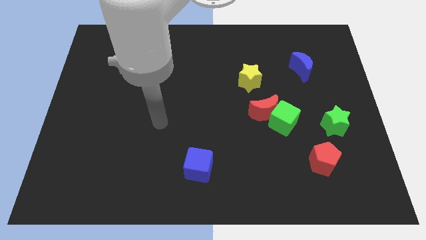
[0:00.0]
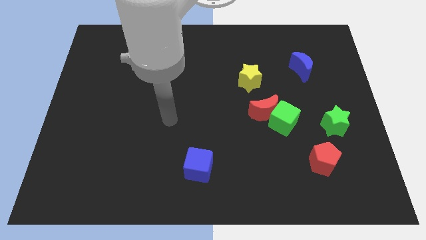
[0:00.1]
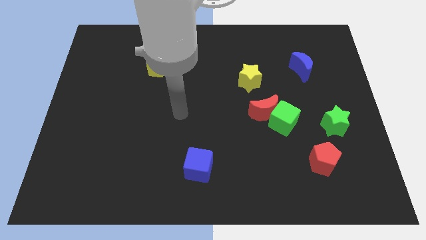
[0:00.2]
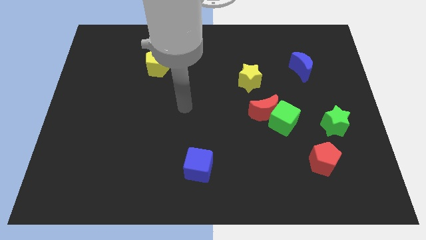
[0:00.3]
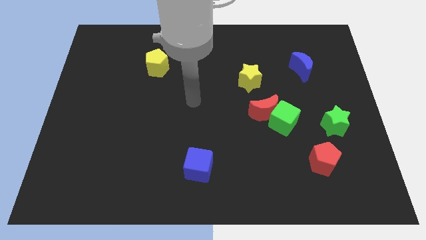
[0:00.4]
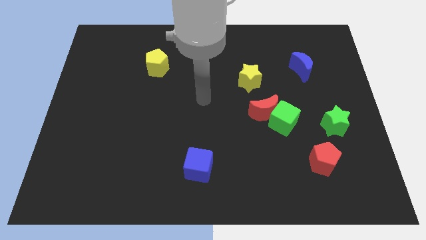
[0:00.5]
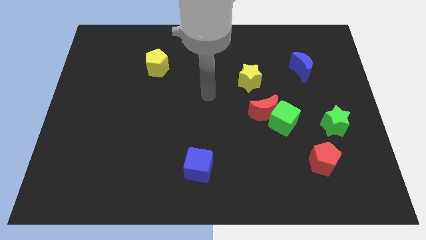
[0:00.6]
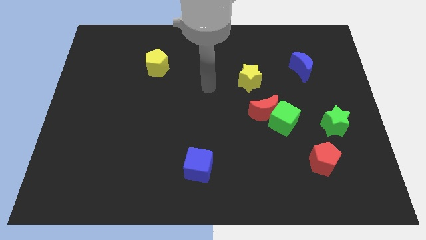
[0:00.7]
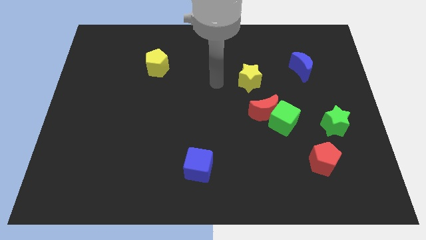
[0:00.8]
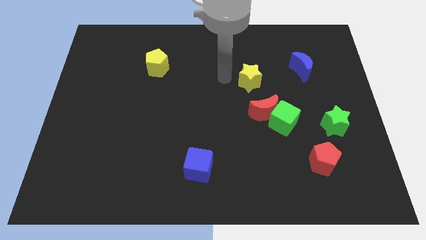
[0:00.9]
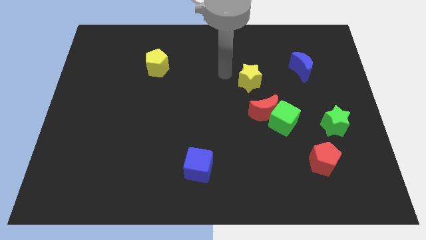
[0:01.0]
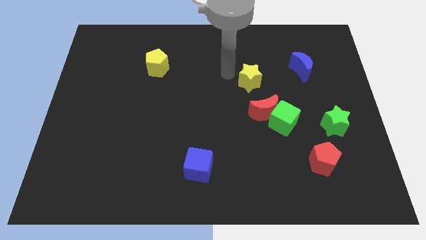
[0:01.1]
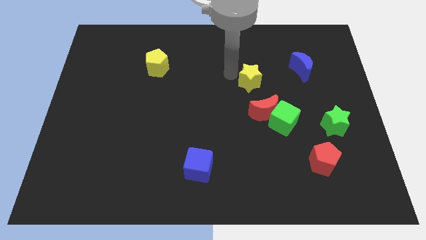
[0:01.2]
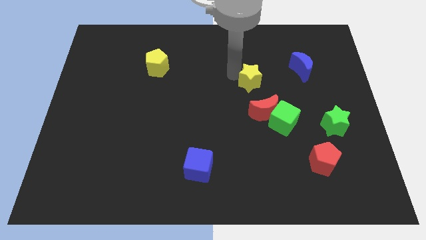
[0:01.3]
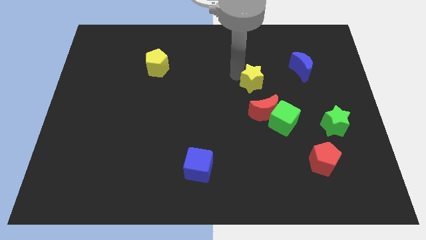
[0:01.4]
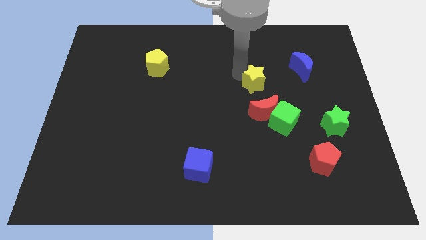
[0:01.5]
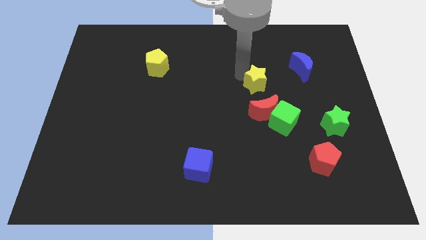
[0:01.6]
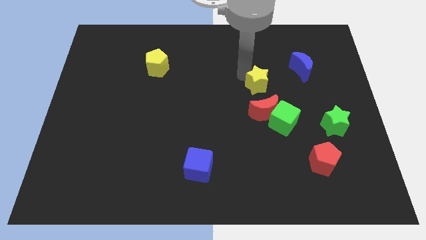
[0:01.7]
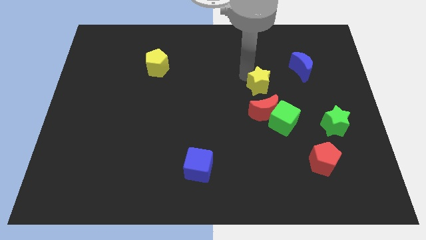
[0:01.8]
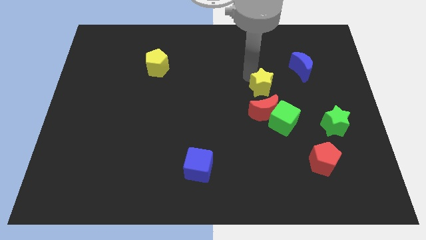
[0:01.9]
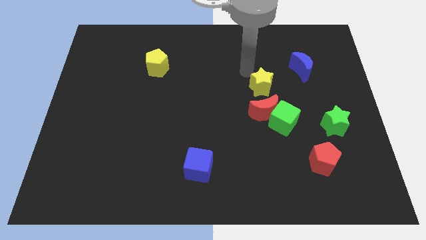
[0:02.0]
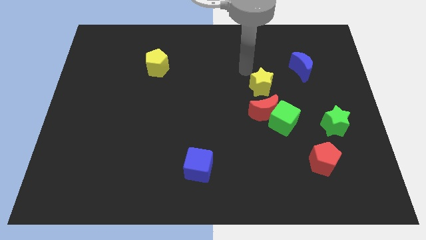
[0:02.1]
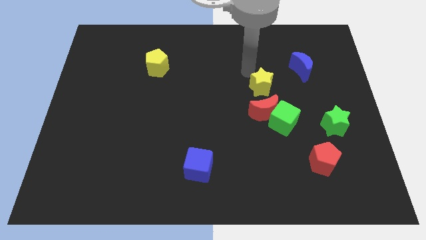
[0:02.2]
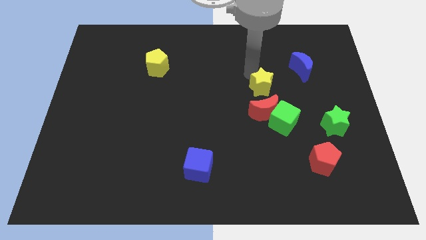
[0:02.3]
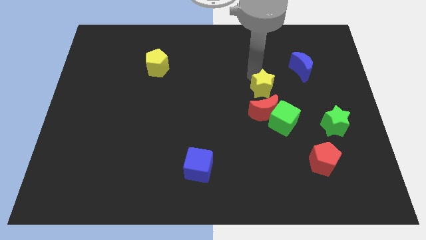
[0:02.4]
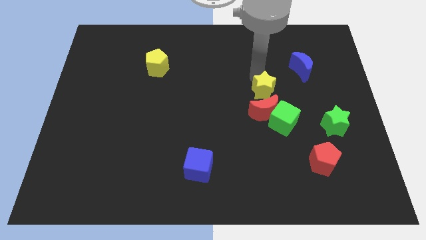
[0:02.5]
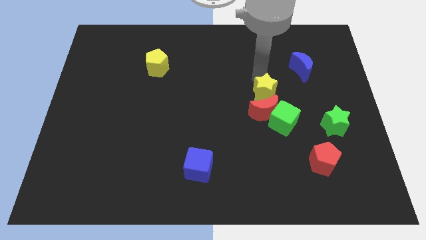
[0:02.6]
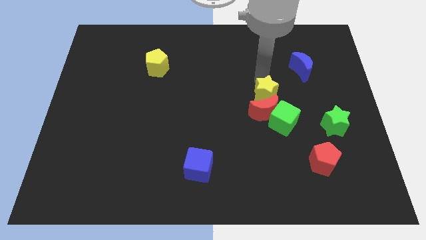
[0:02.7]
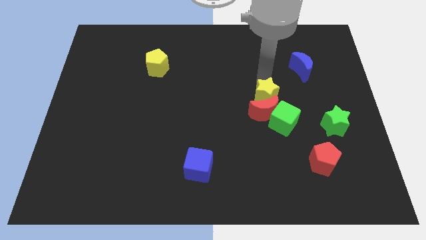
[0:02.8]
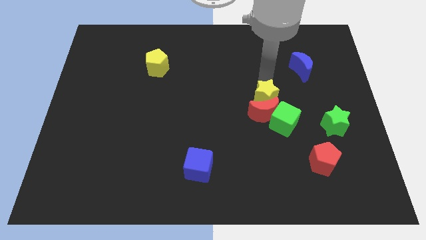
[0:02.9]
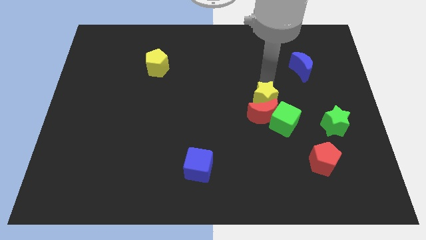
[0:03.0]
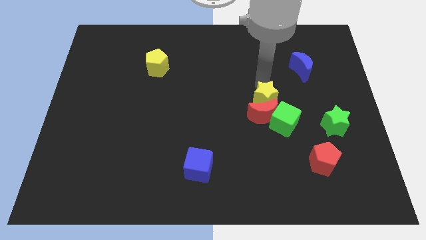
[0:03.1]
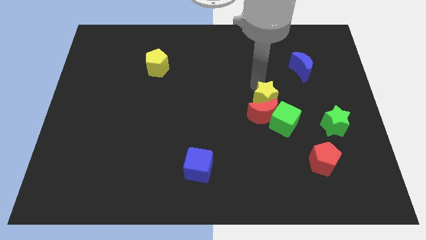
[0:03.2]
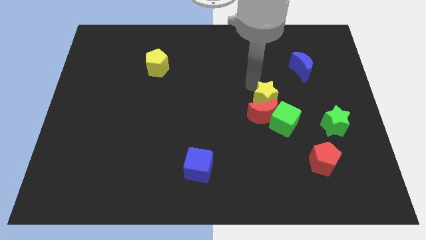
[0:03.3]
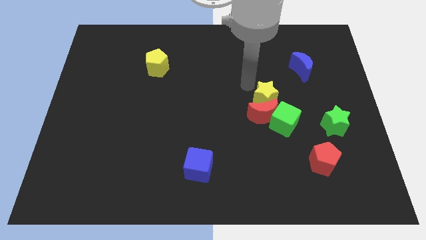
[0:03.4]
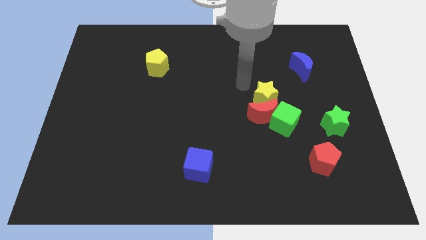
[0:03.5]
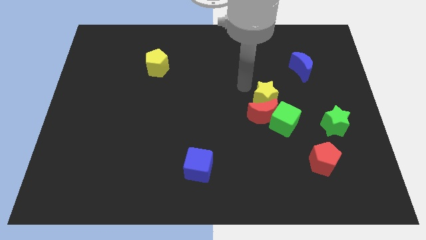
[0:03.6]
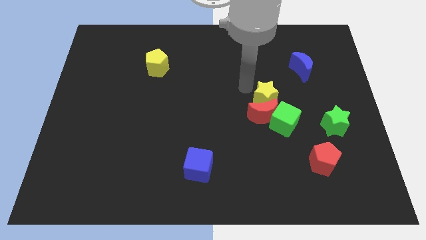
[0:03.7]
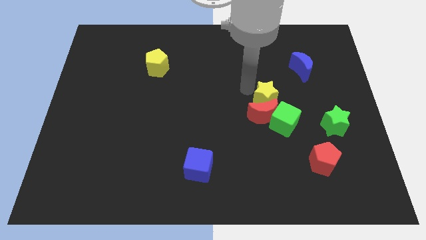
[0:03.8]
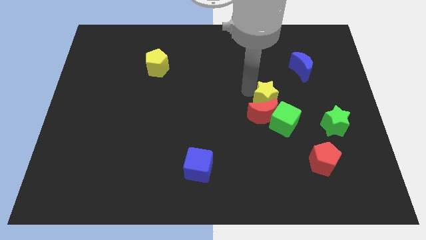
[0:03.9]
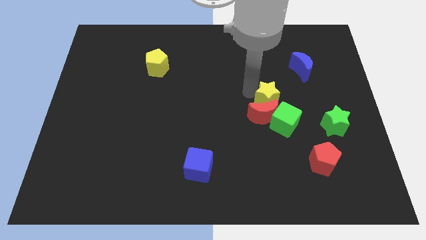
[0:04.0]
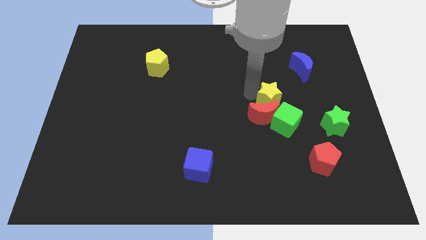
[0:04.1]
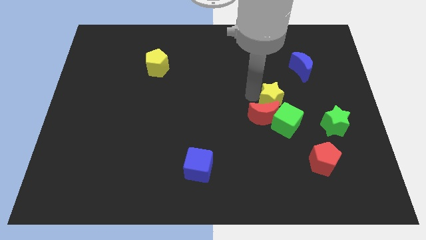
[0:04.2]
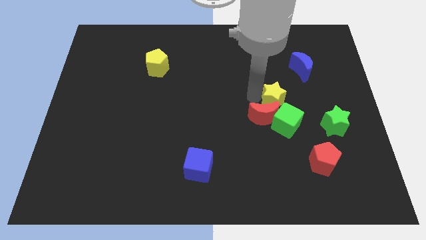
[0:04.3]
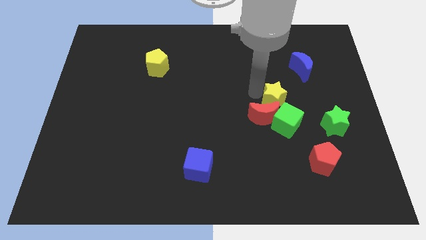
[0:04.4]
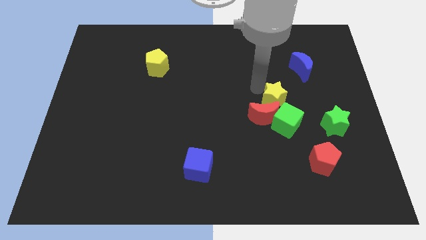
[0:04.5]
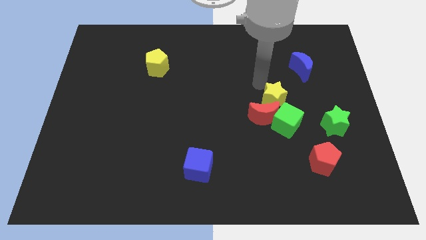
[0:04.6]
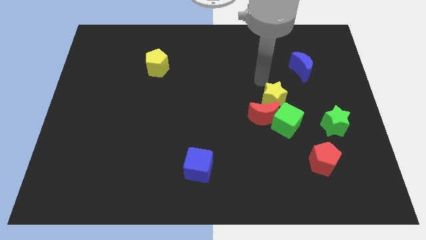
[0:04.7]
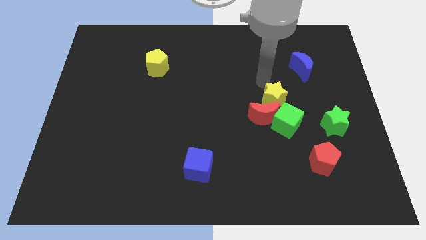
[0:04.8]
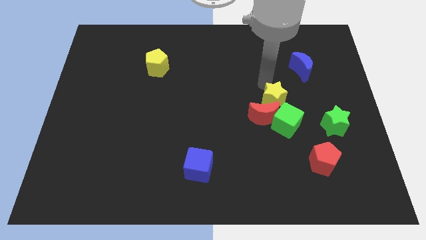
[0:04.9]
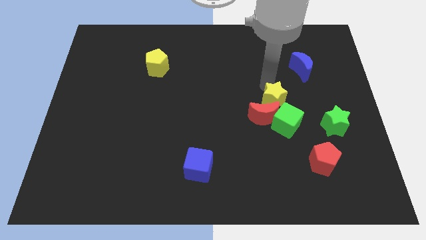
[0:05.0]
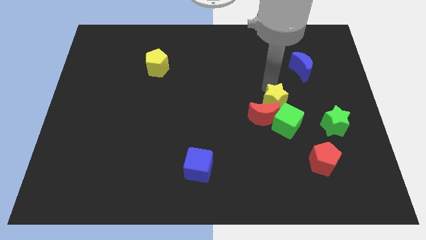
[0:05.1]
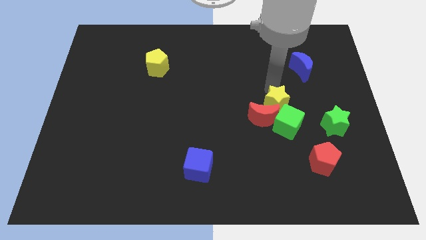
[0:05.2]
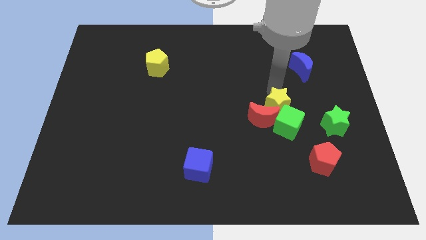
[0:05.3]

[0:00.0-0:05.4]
move the yellow star to the green cube

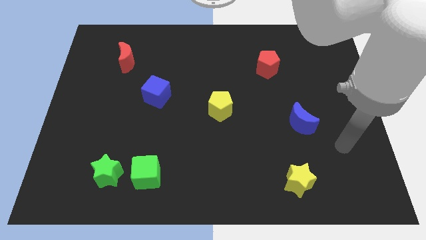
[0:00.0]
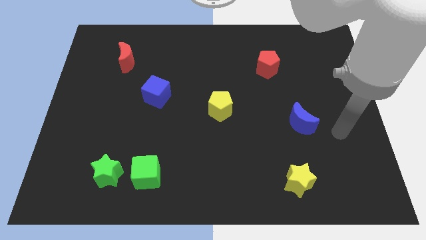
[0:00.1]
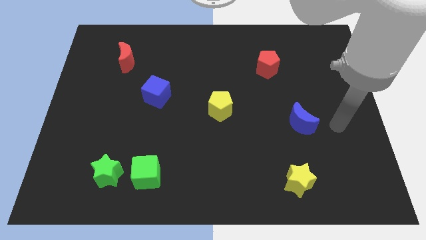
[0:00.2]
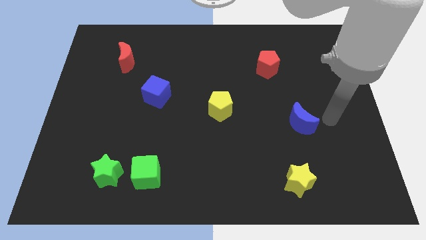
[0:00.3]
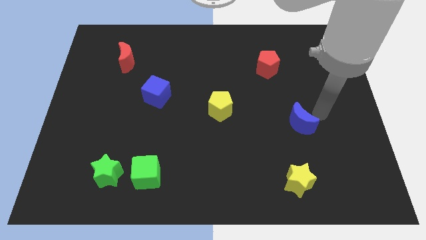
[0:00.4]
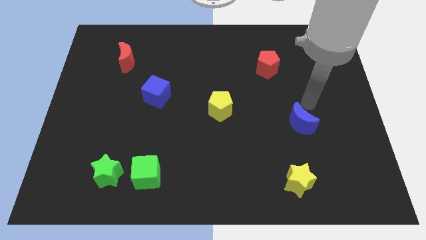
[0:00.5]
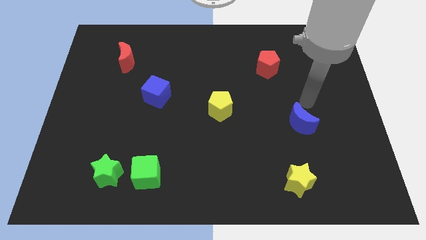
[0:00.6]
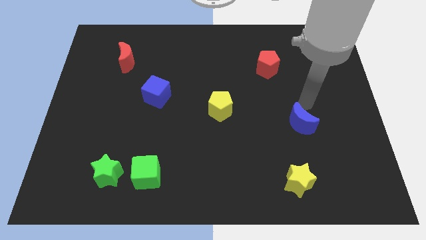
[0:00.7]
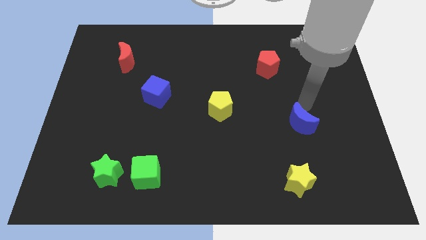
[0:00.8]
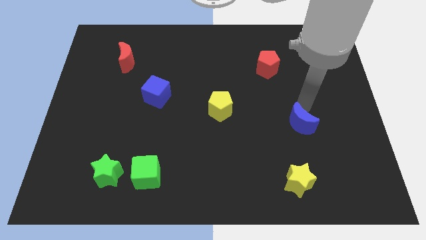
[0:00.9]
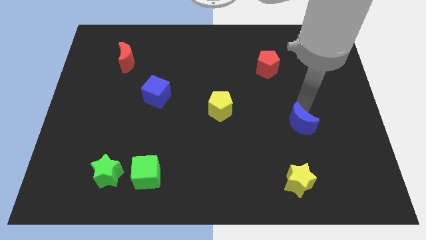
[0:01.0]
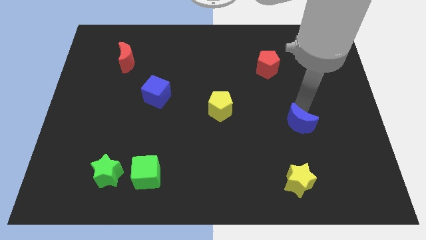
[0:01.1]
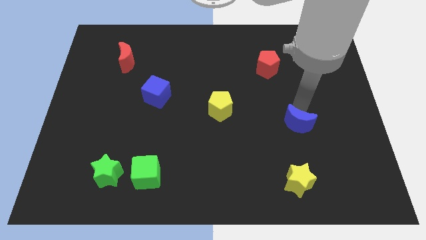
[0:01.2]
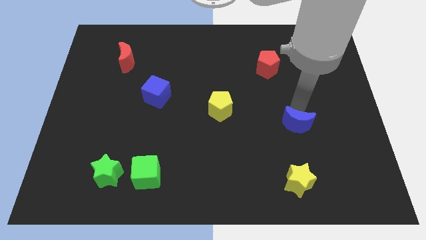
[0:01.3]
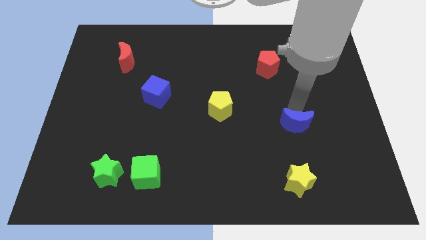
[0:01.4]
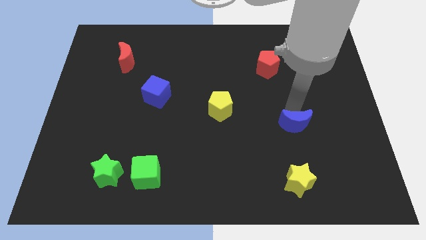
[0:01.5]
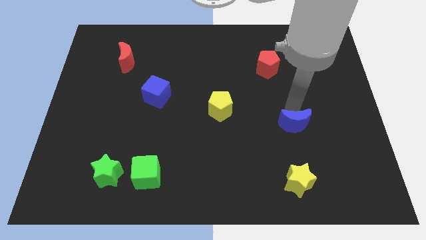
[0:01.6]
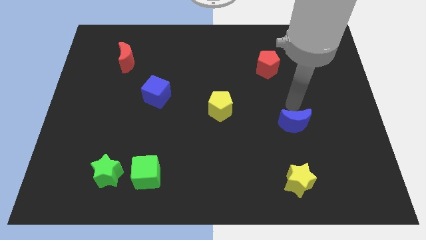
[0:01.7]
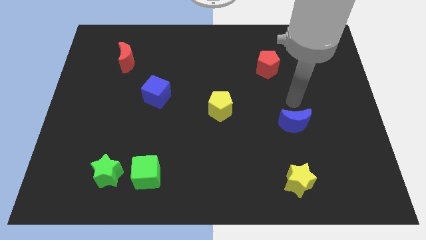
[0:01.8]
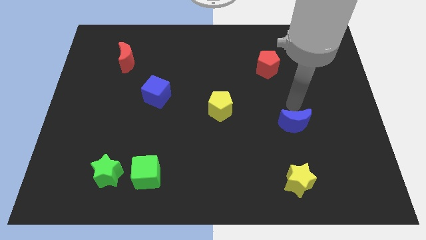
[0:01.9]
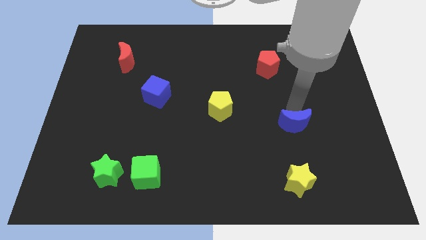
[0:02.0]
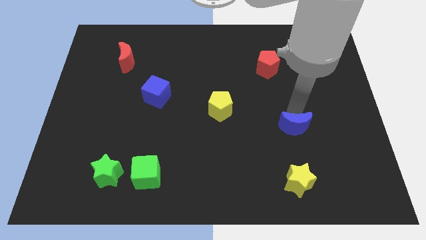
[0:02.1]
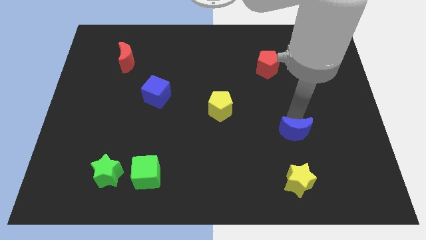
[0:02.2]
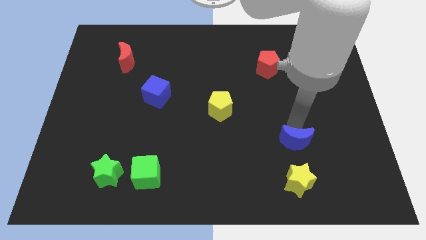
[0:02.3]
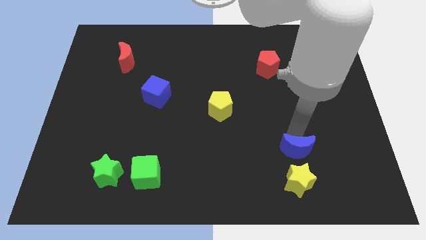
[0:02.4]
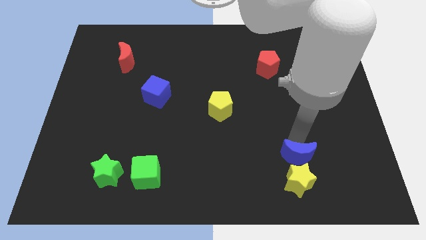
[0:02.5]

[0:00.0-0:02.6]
push the blue moon next to the yellow star

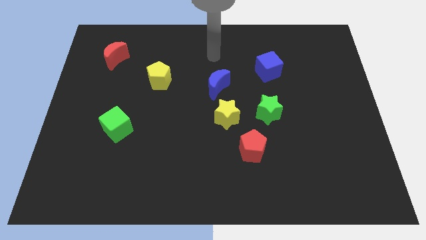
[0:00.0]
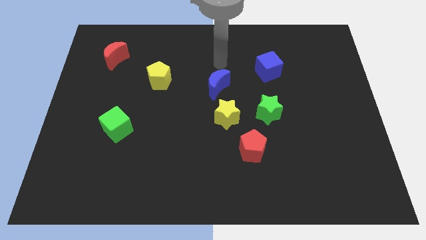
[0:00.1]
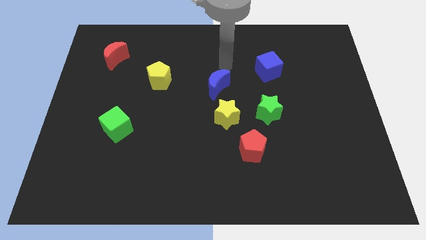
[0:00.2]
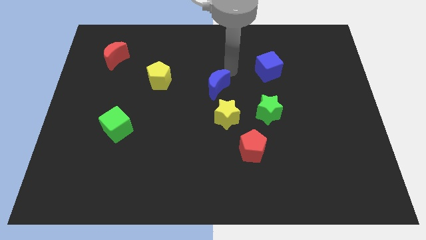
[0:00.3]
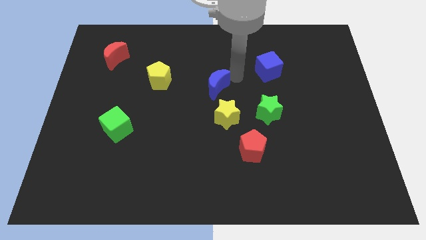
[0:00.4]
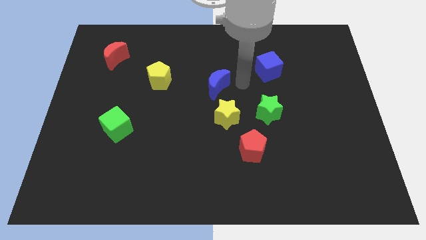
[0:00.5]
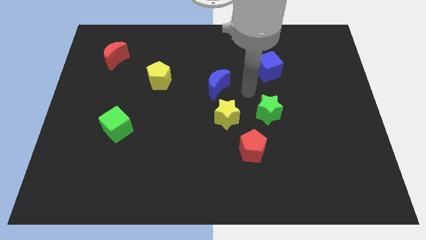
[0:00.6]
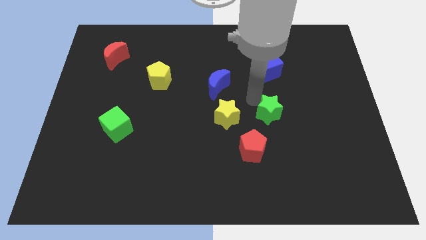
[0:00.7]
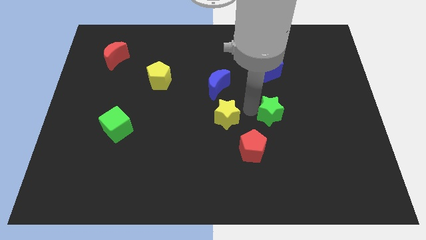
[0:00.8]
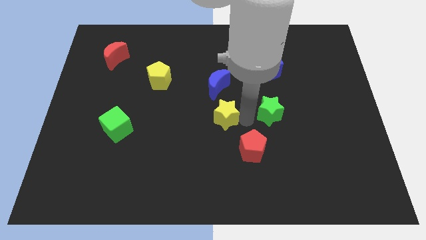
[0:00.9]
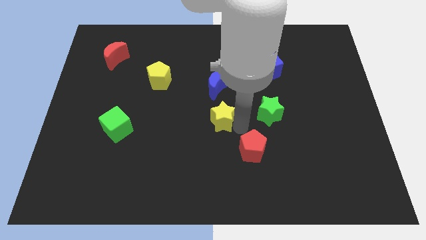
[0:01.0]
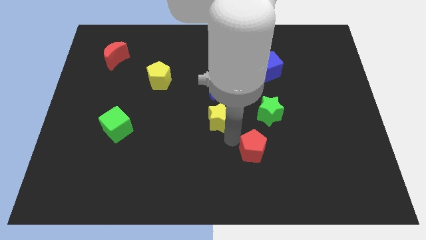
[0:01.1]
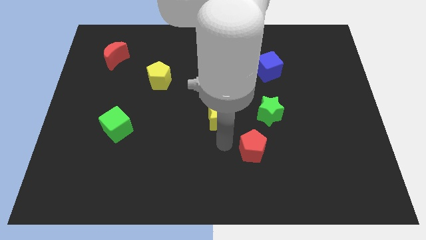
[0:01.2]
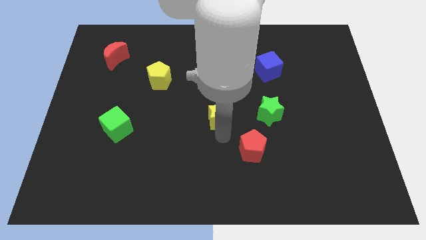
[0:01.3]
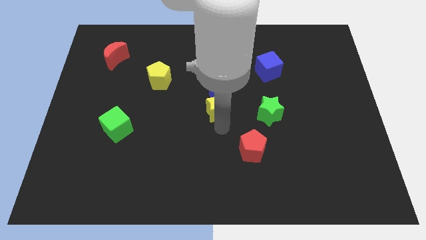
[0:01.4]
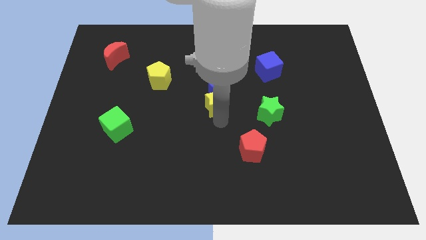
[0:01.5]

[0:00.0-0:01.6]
push the yellow star towards the blue moon
